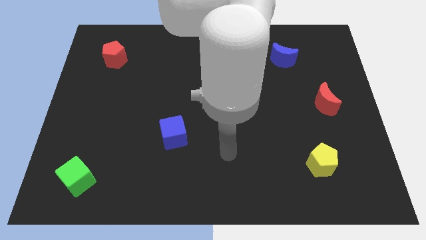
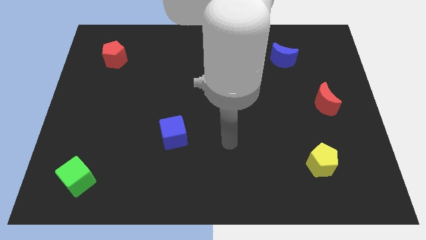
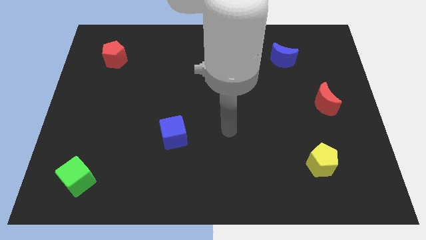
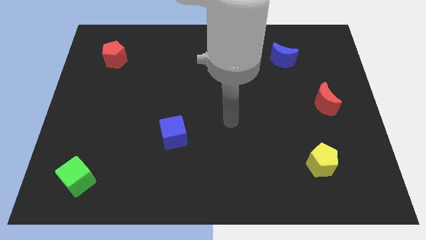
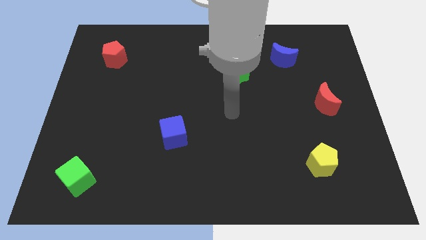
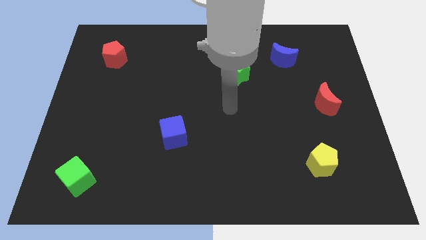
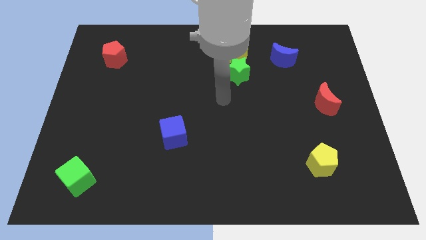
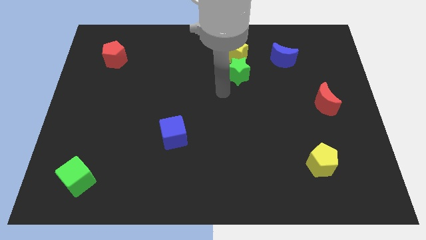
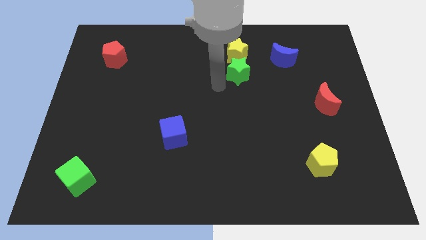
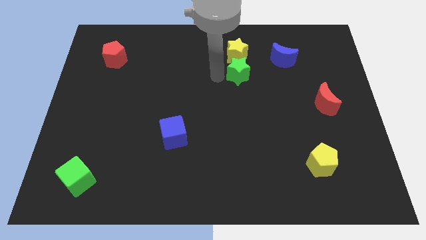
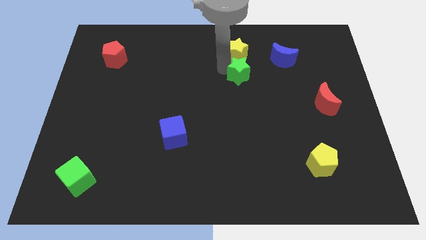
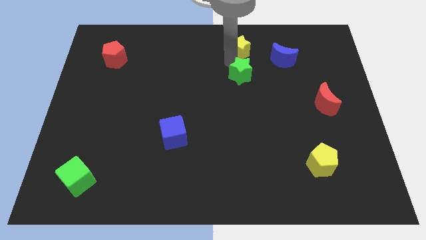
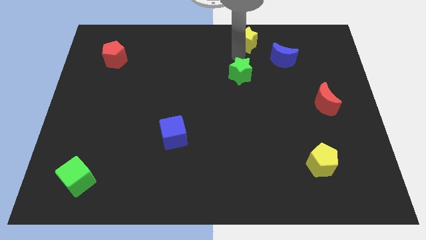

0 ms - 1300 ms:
pull the green star apart from the yellow star

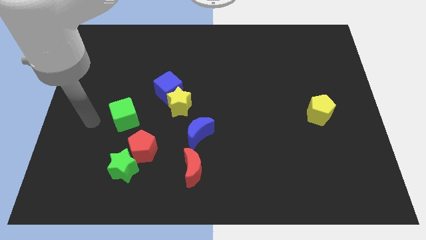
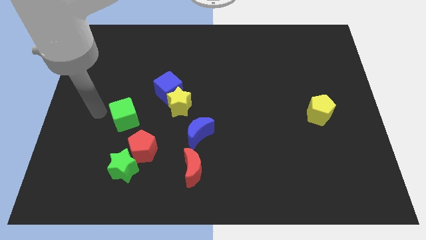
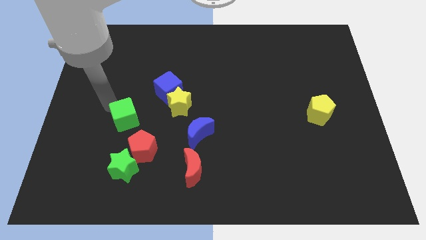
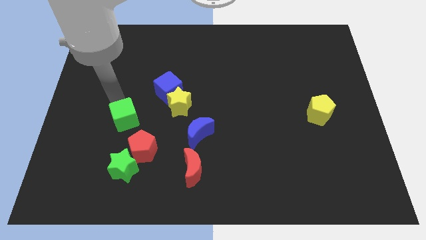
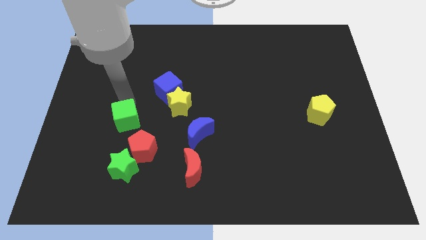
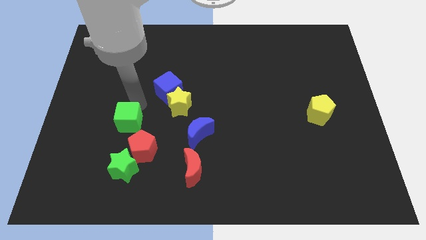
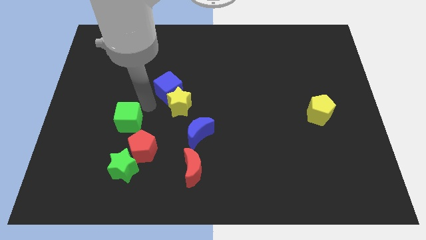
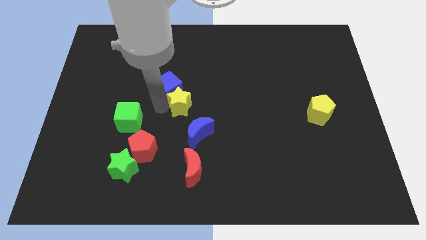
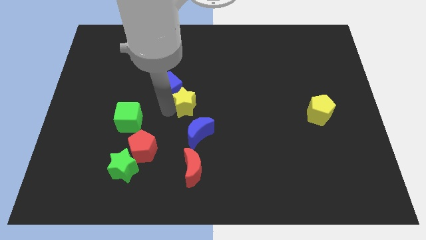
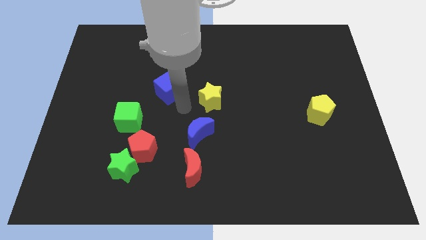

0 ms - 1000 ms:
separate the blue cube from the yellow star

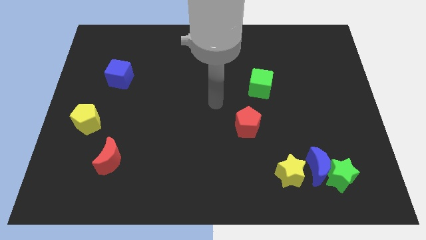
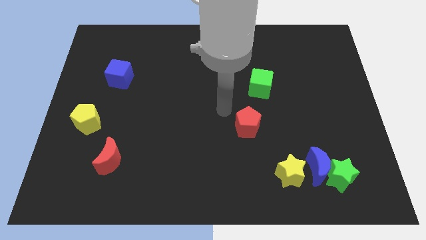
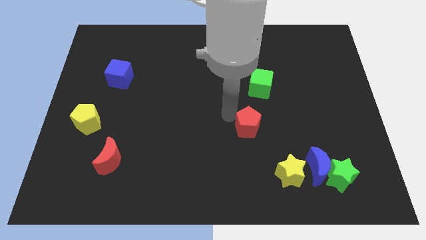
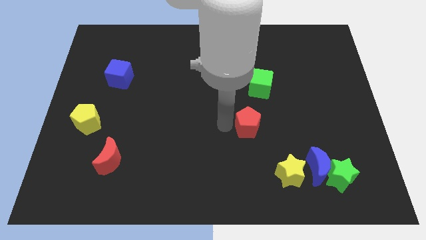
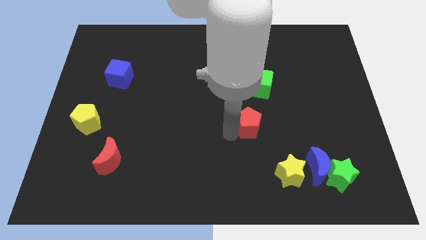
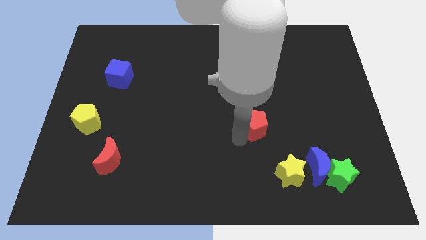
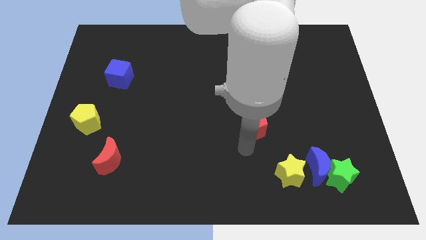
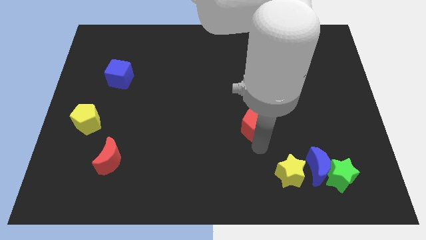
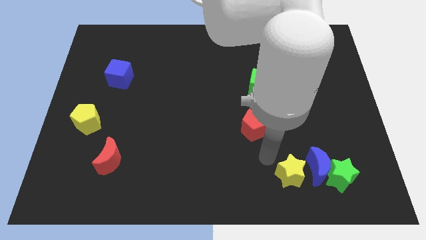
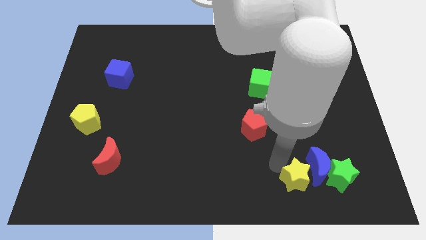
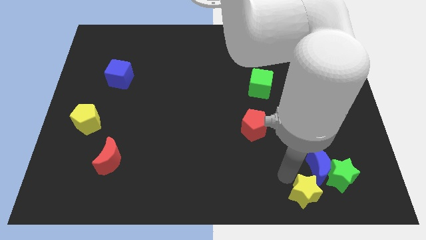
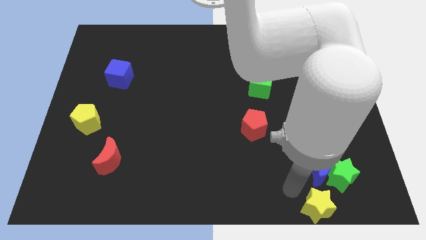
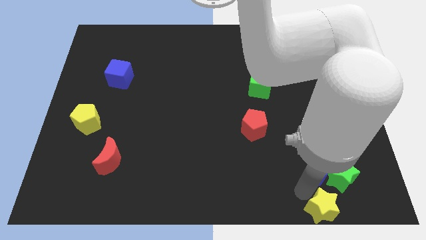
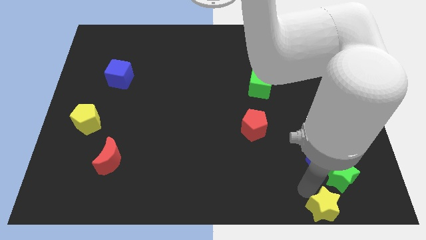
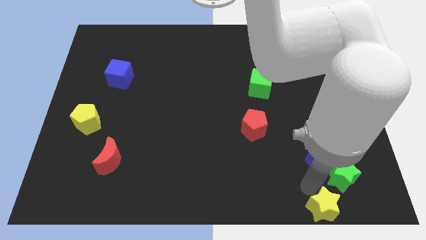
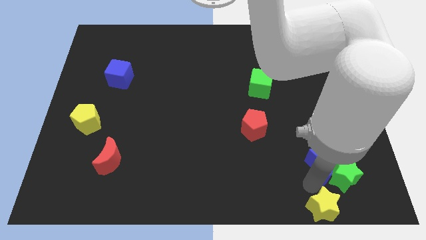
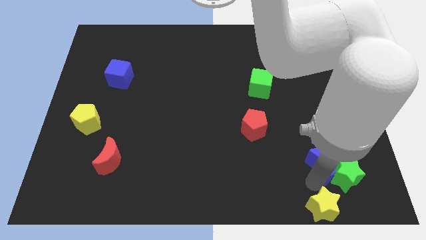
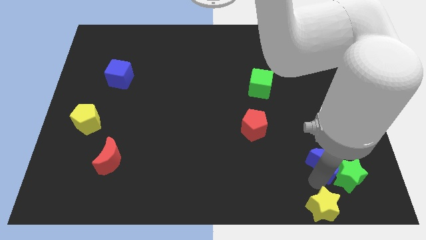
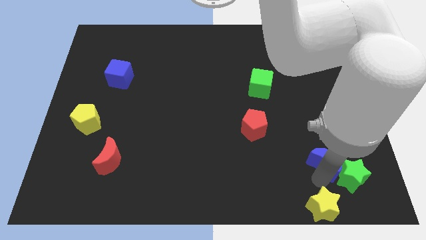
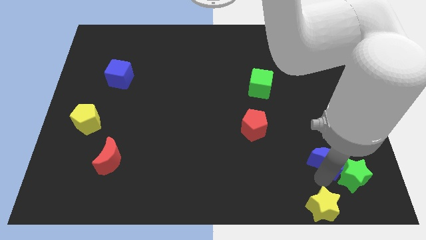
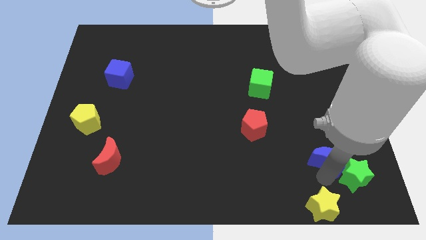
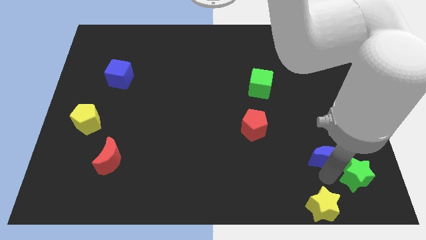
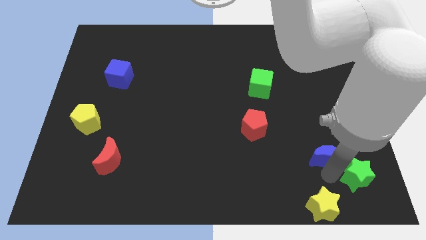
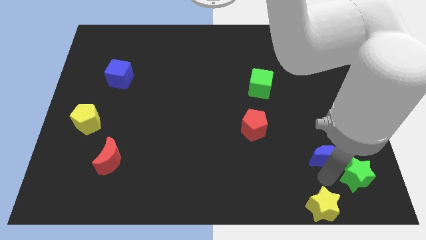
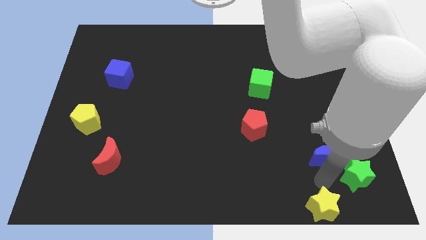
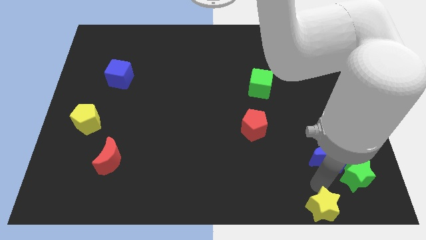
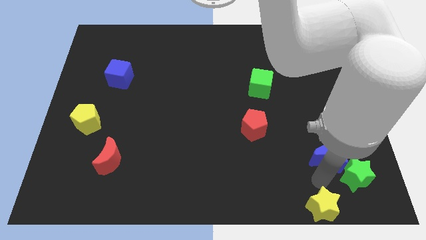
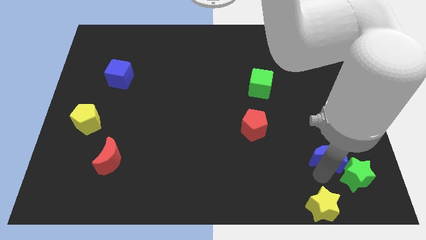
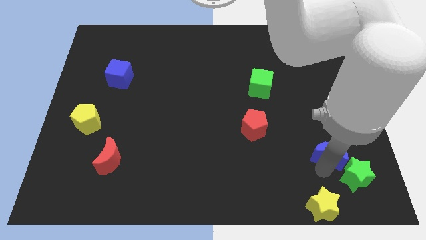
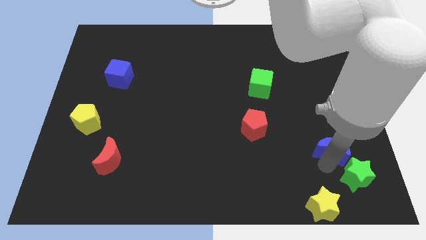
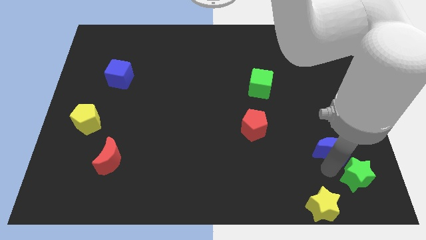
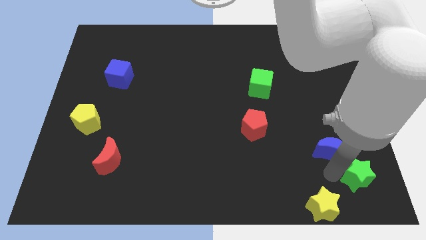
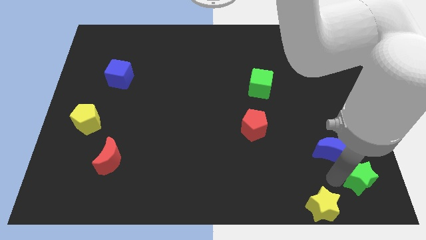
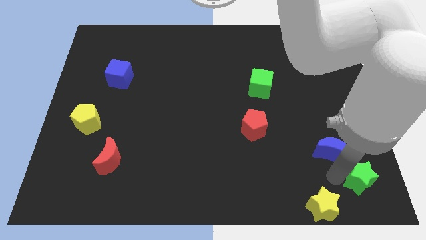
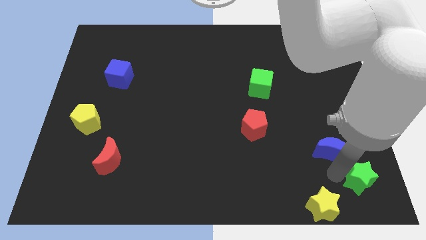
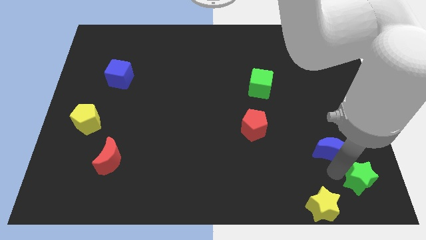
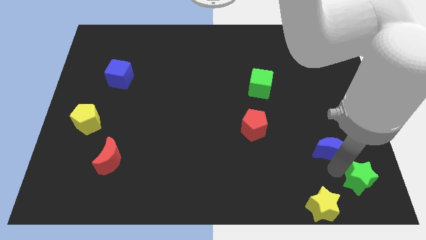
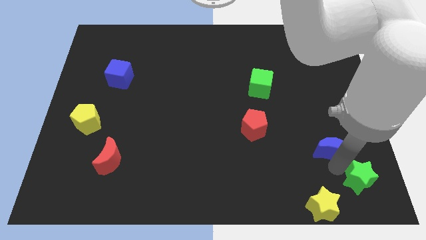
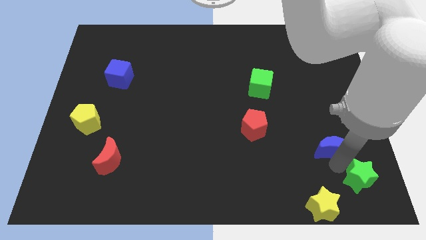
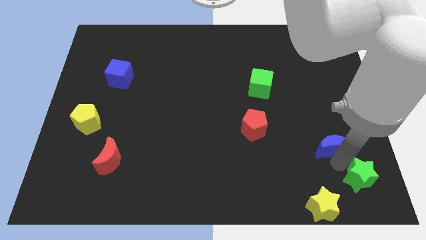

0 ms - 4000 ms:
move the blue moon away from the green star and yellow star

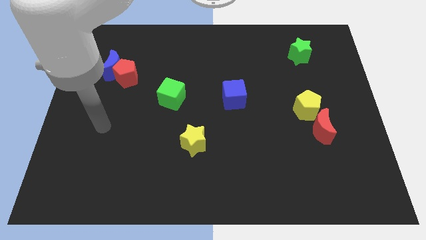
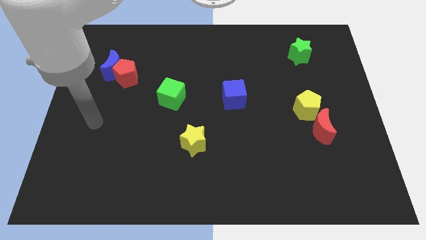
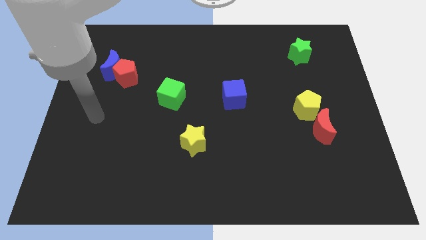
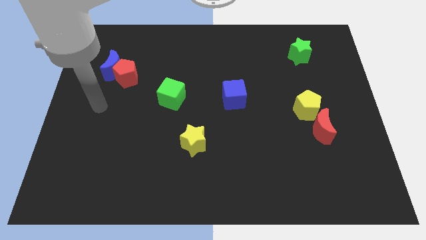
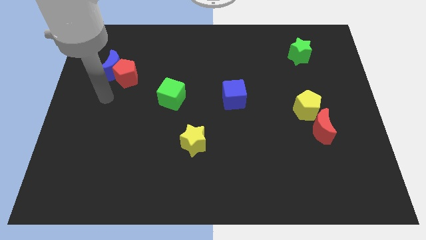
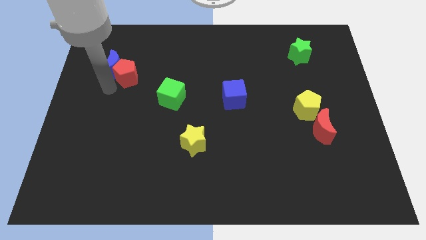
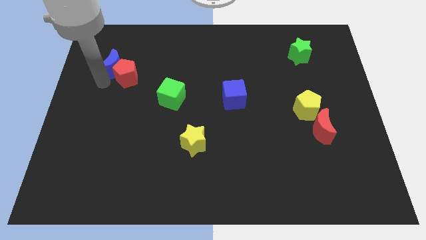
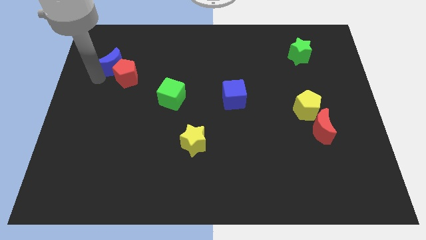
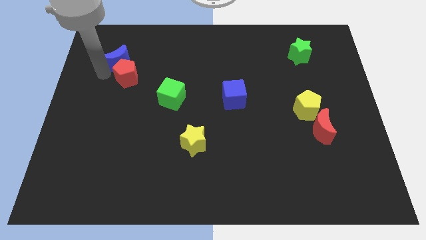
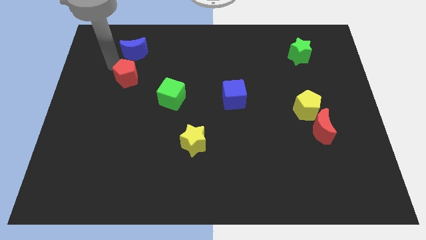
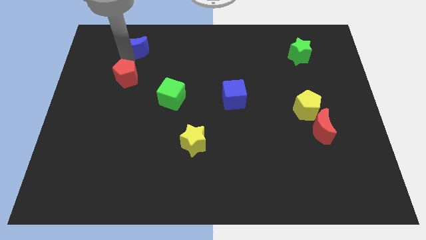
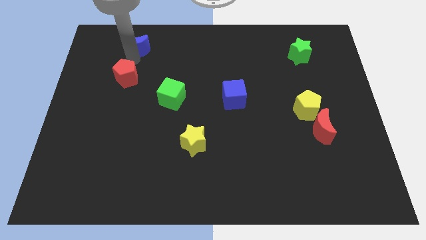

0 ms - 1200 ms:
separate the red pentagon from the blue moon

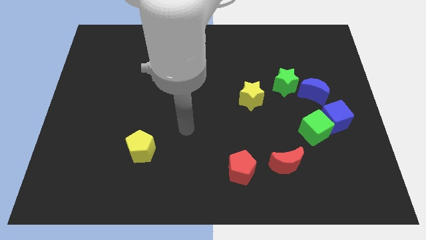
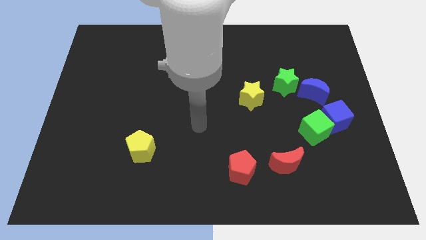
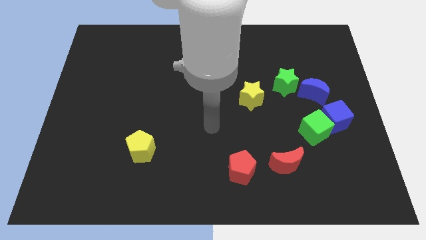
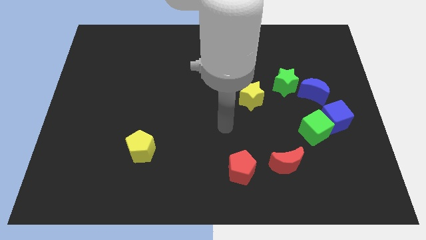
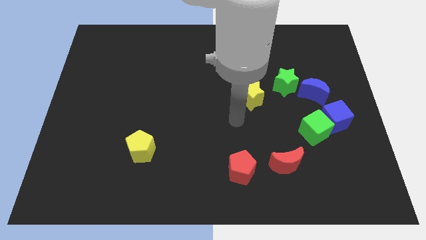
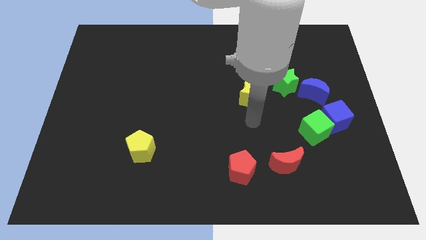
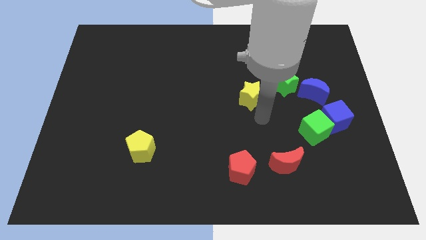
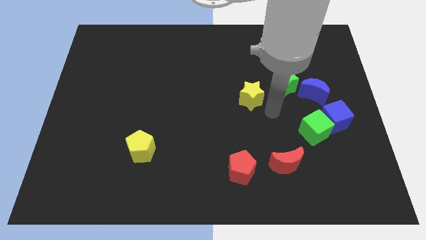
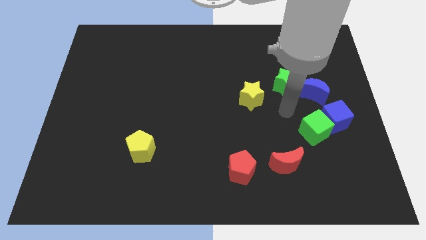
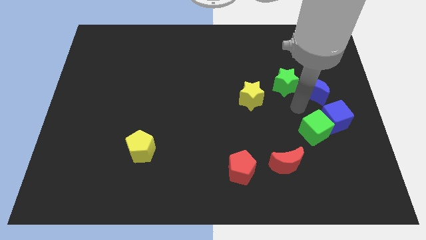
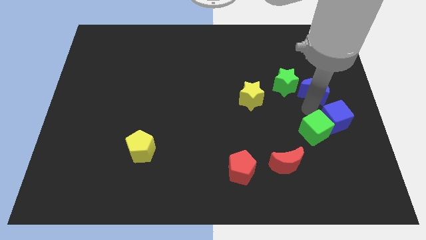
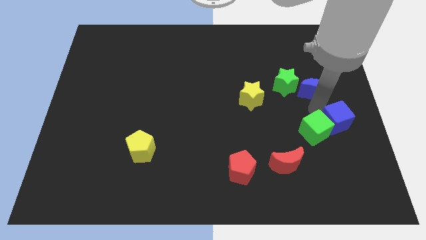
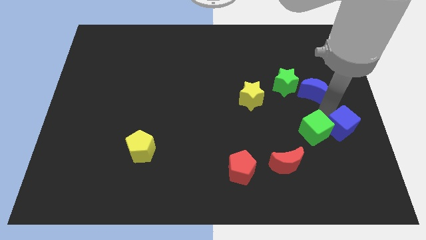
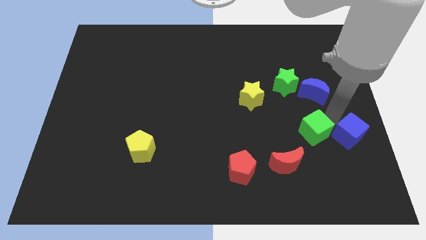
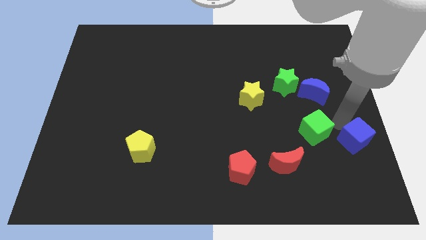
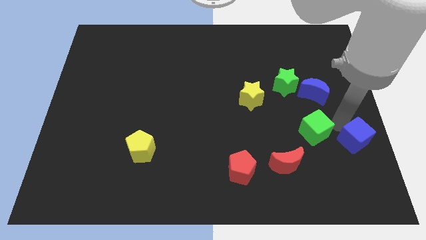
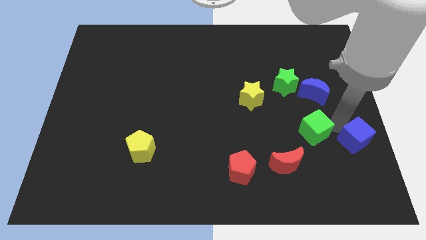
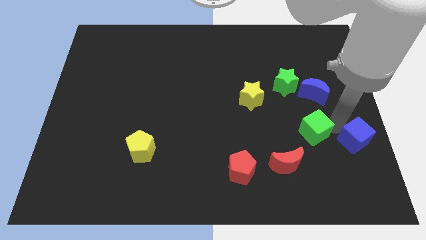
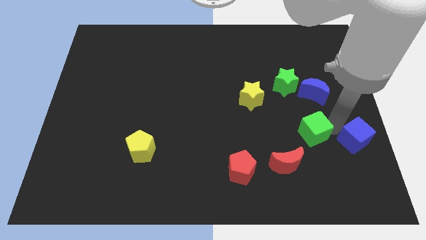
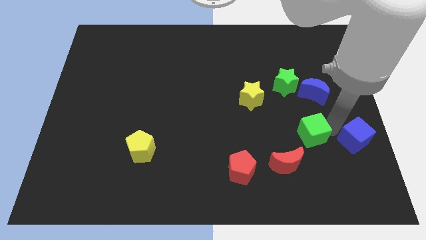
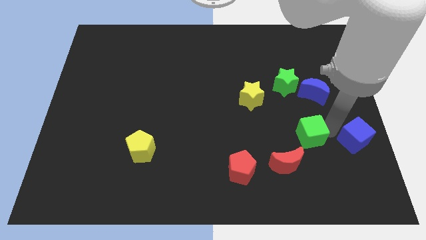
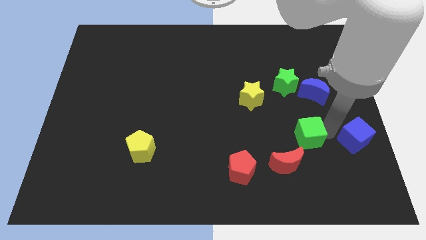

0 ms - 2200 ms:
move the green cube away from the blue cube
